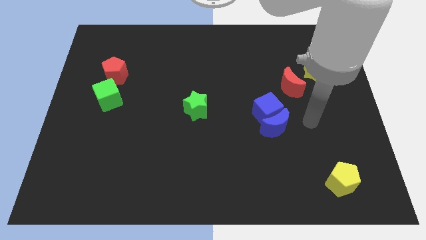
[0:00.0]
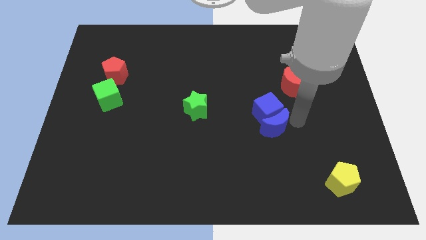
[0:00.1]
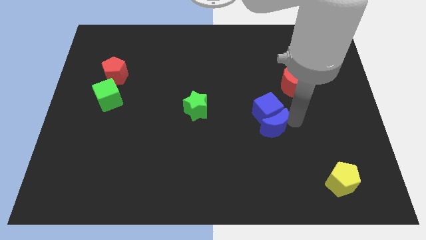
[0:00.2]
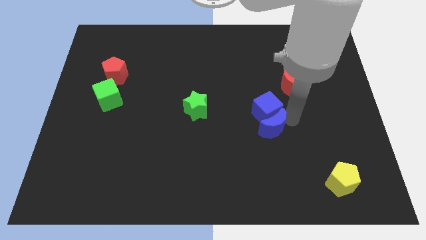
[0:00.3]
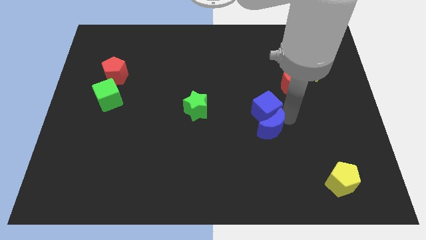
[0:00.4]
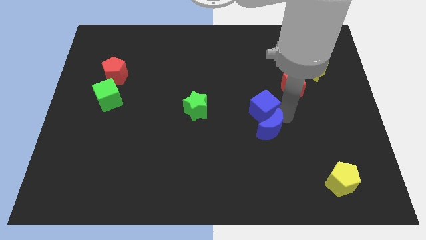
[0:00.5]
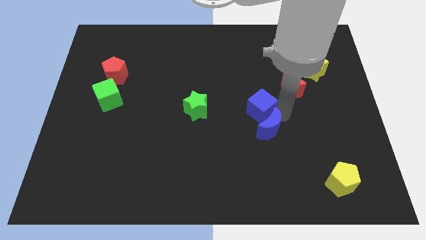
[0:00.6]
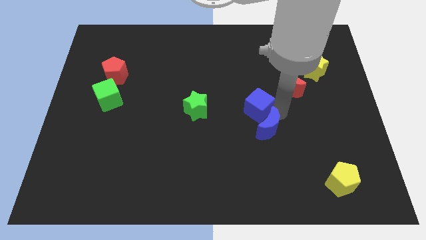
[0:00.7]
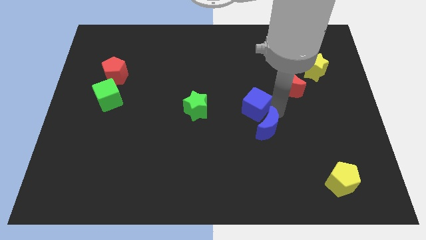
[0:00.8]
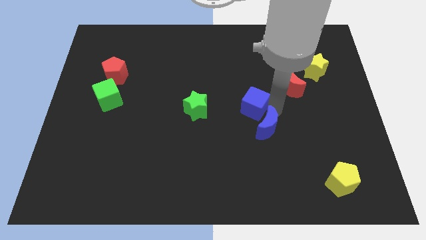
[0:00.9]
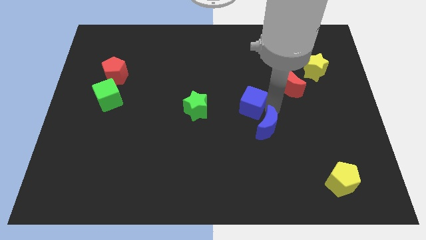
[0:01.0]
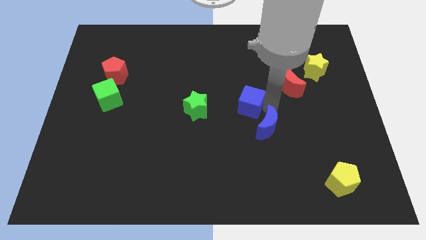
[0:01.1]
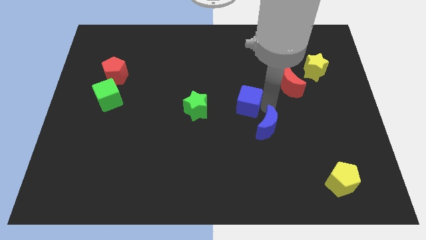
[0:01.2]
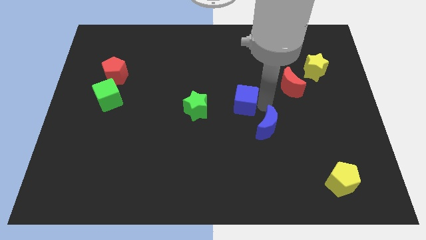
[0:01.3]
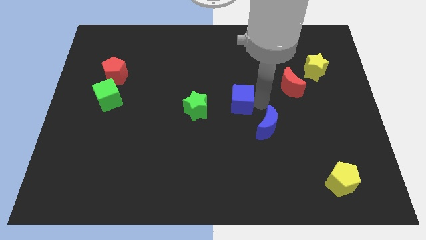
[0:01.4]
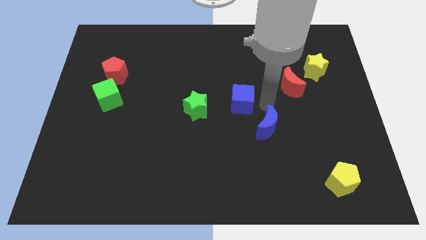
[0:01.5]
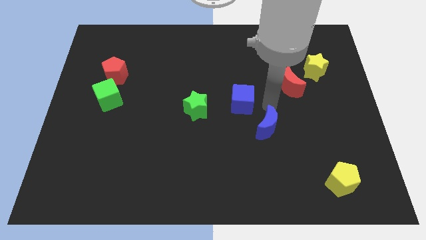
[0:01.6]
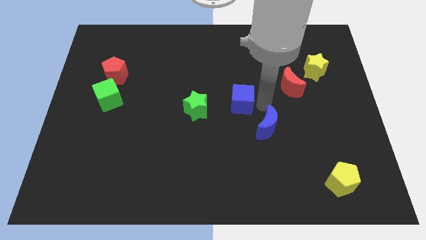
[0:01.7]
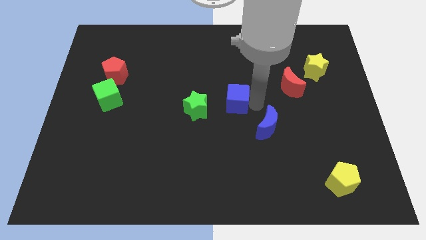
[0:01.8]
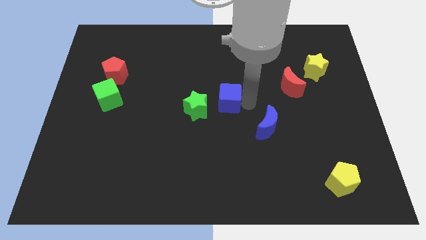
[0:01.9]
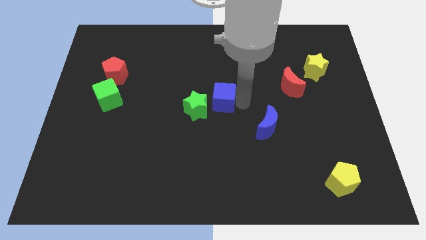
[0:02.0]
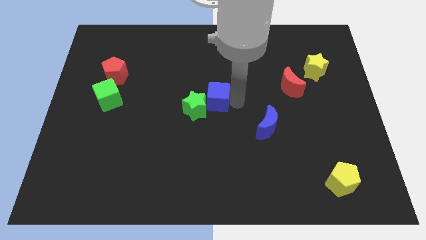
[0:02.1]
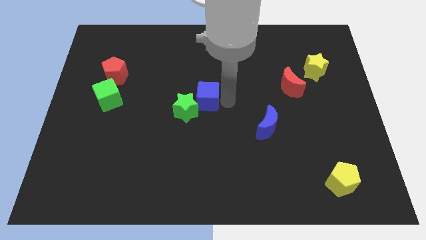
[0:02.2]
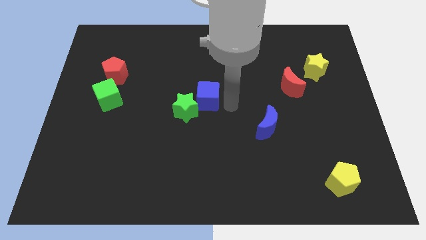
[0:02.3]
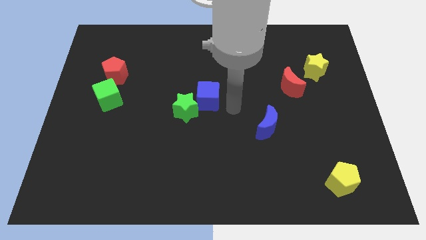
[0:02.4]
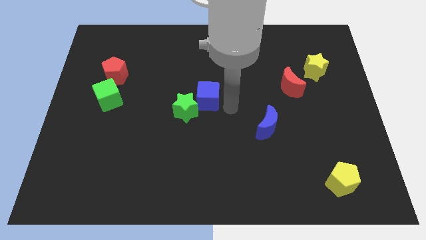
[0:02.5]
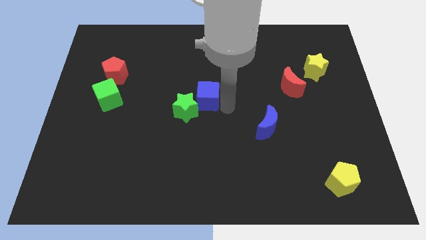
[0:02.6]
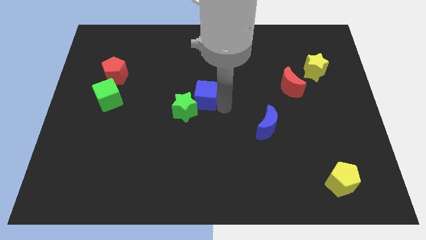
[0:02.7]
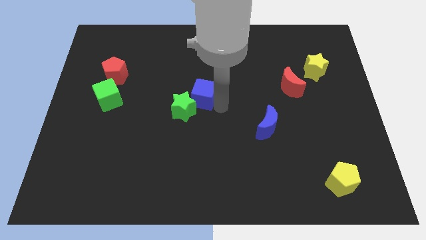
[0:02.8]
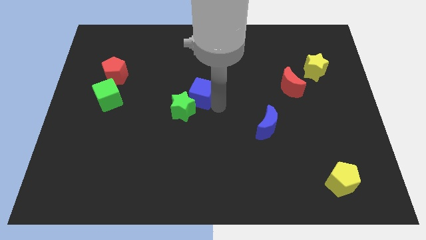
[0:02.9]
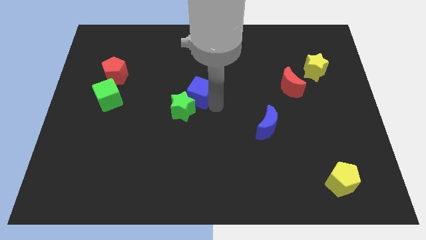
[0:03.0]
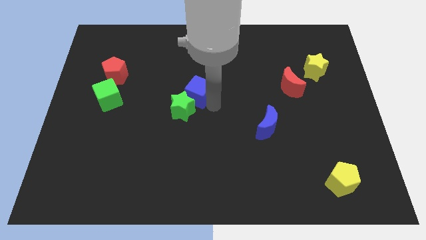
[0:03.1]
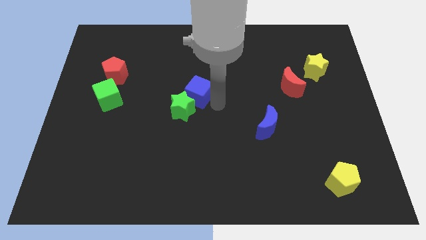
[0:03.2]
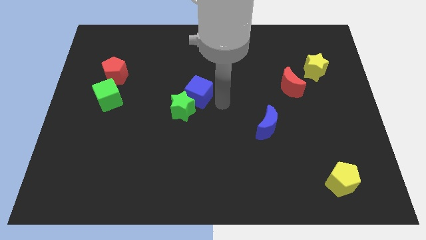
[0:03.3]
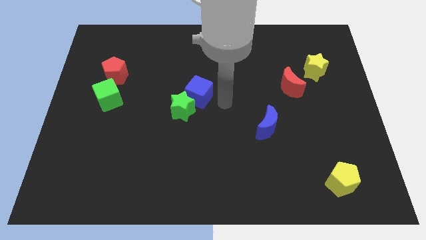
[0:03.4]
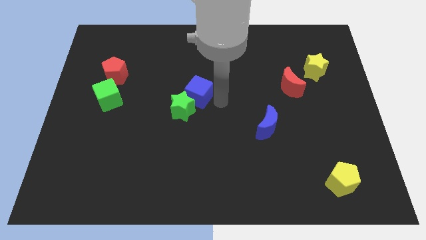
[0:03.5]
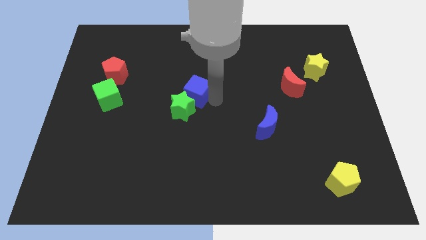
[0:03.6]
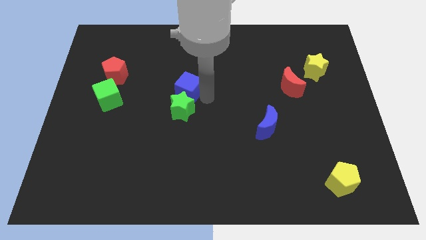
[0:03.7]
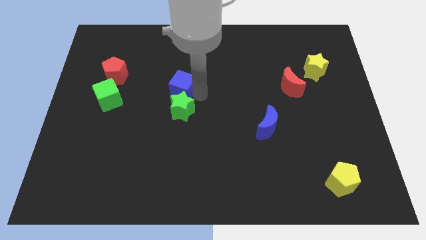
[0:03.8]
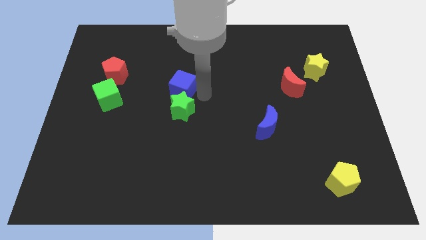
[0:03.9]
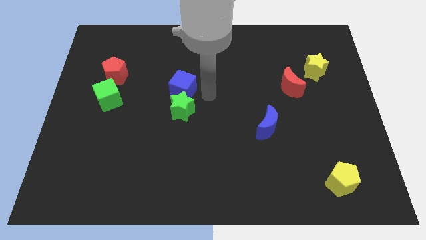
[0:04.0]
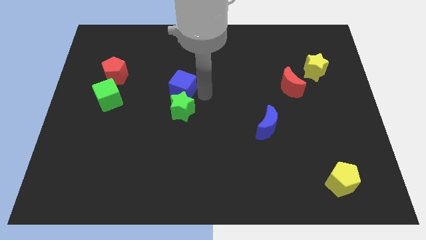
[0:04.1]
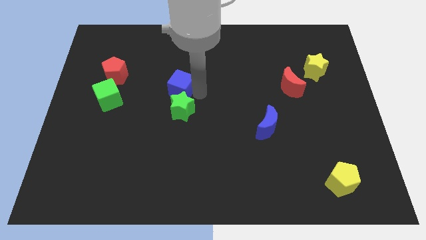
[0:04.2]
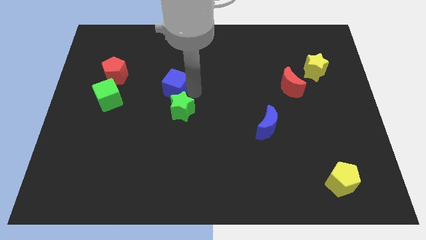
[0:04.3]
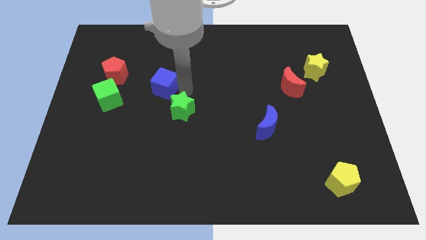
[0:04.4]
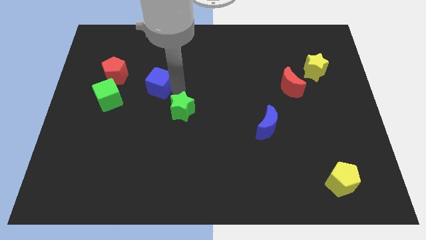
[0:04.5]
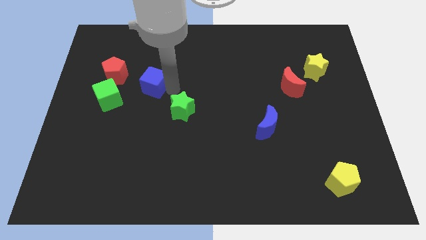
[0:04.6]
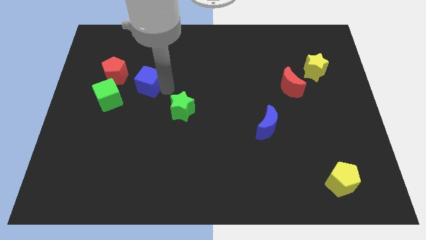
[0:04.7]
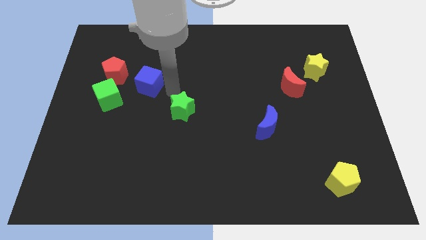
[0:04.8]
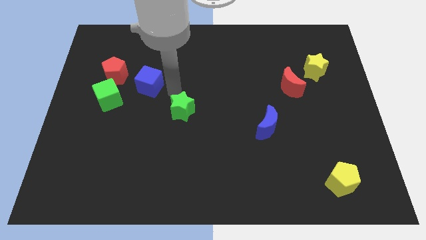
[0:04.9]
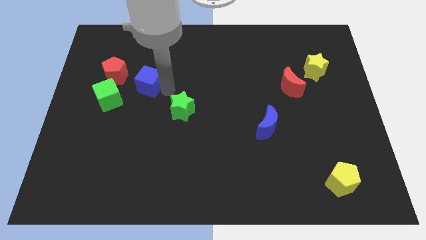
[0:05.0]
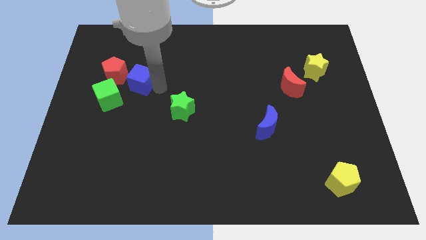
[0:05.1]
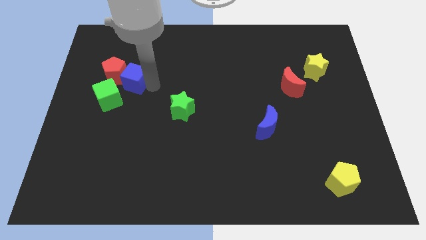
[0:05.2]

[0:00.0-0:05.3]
move the blue cube towards the red pentagon
